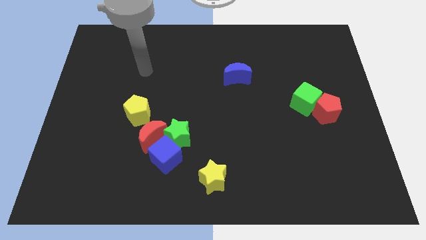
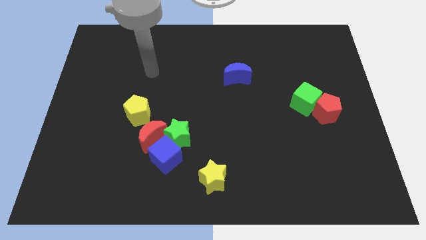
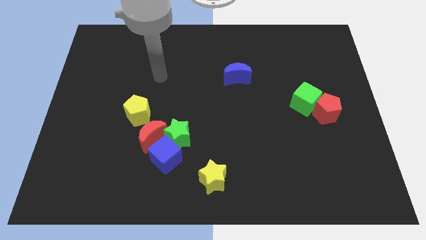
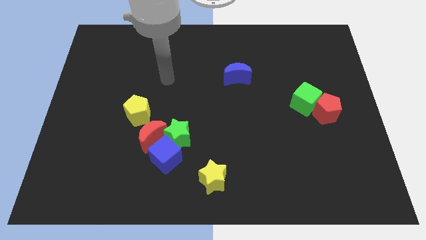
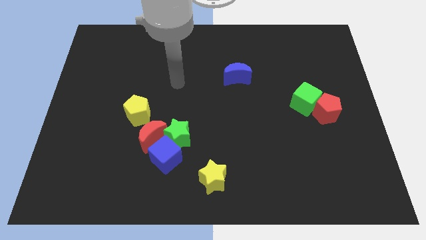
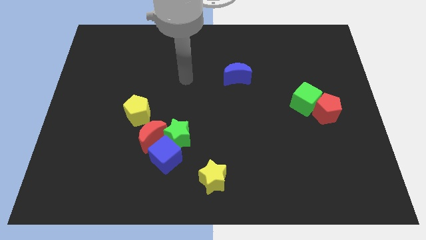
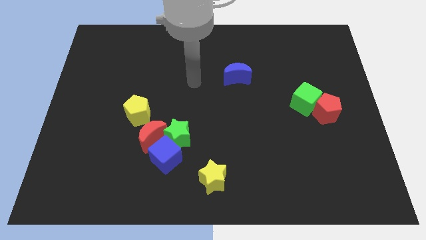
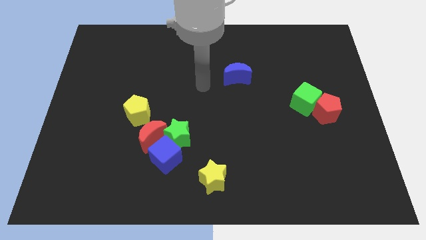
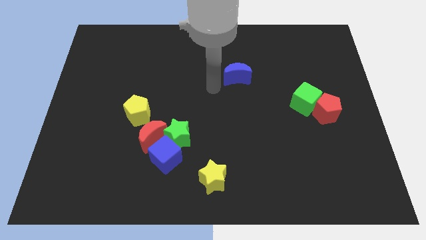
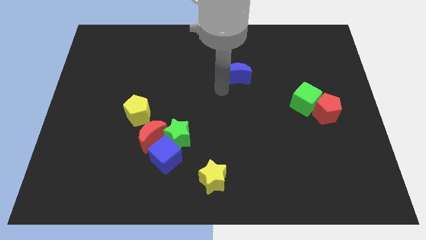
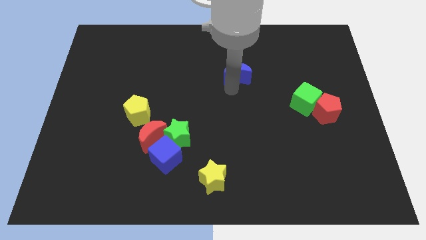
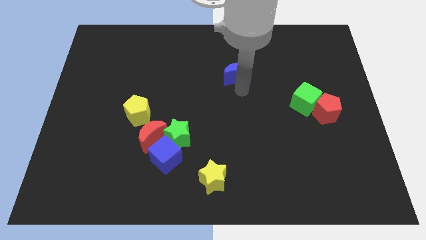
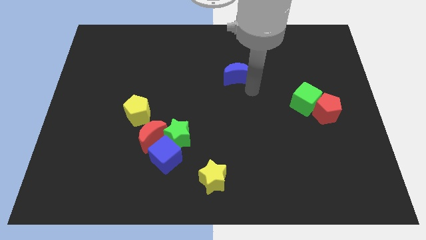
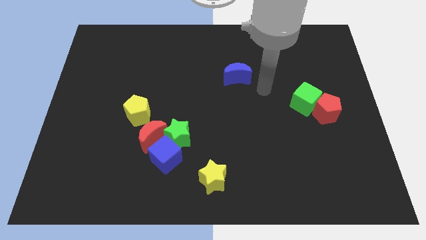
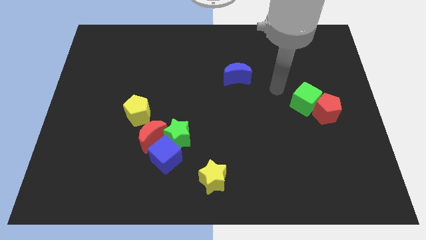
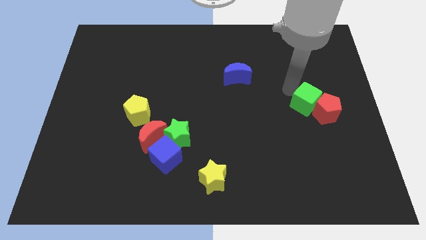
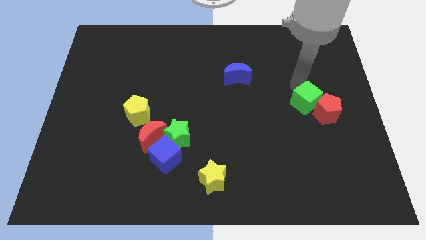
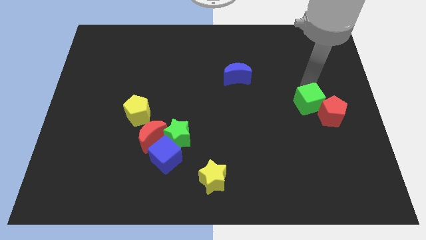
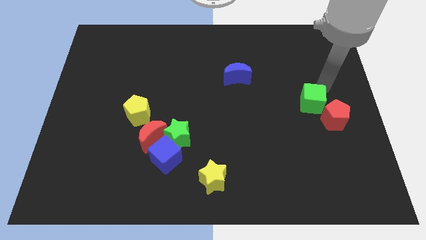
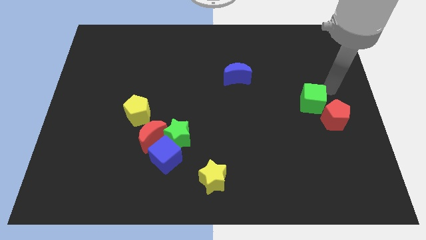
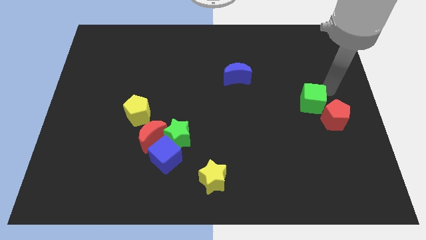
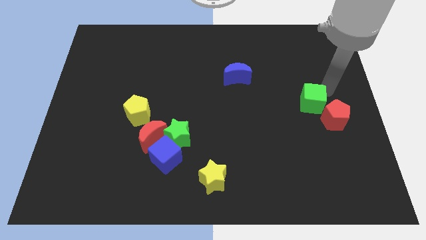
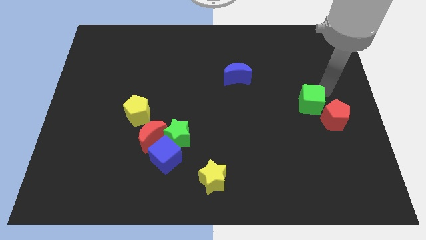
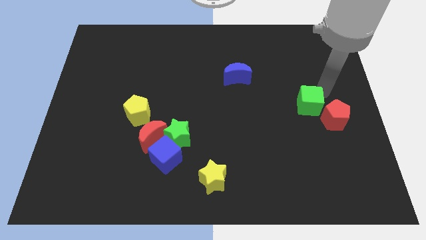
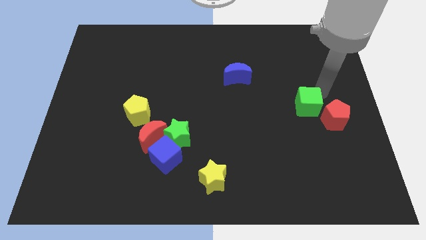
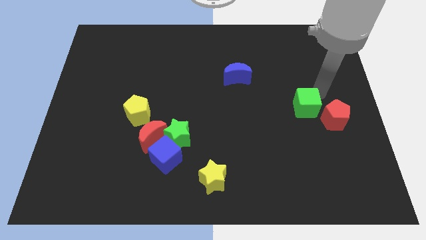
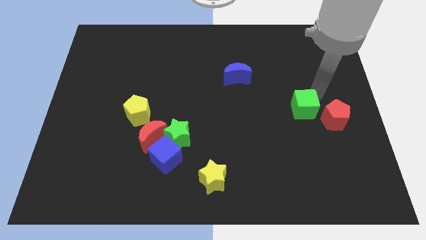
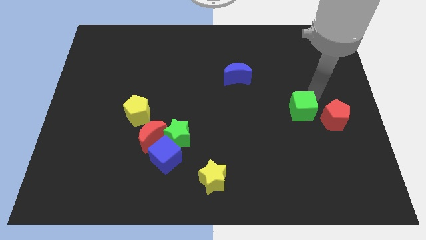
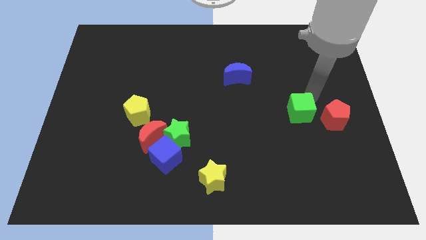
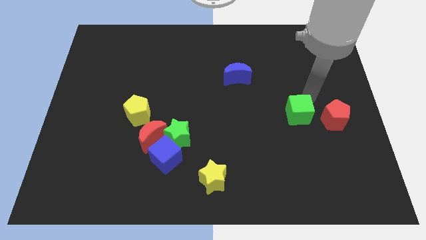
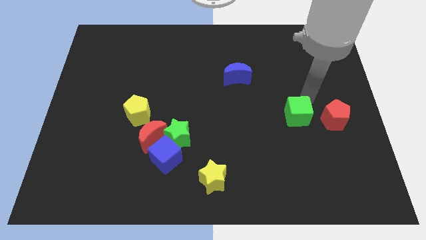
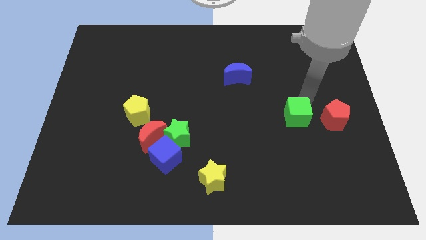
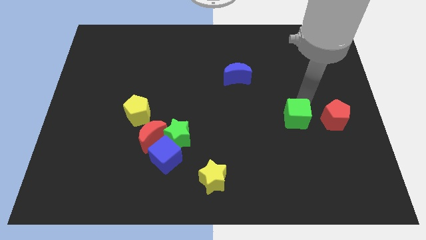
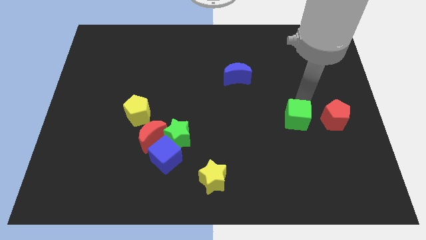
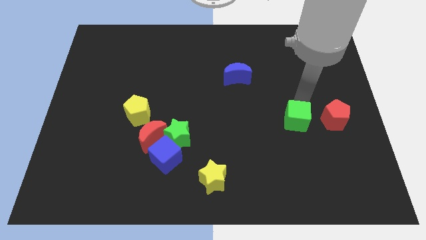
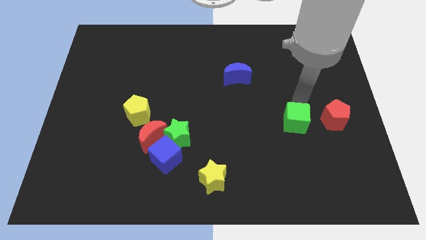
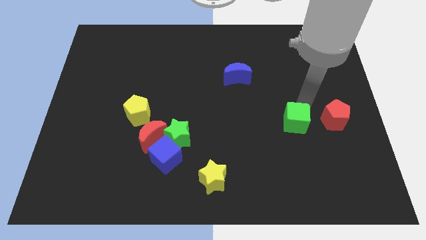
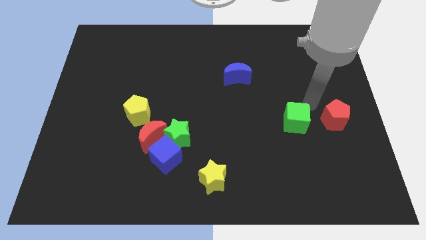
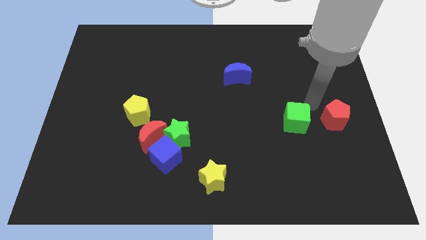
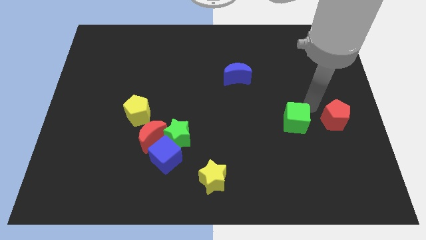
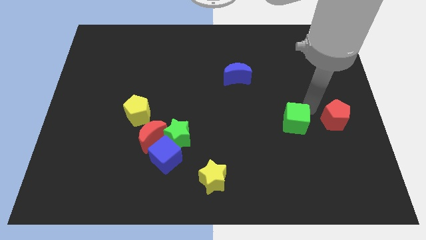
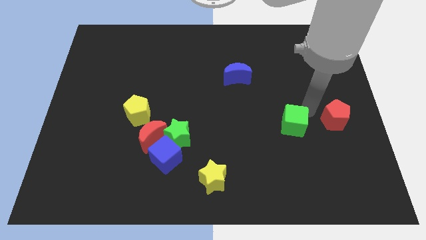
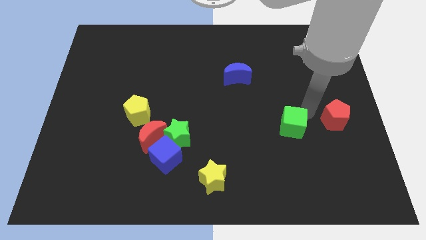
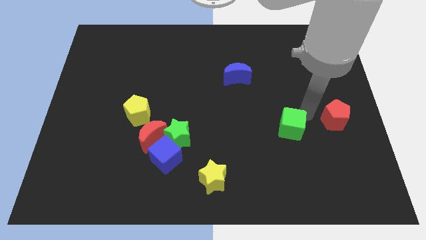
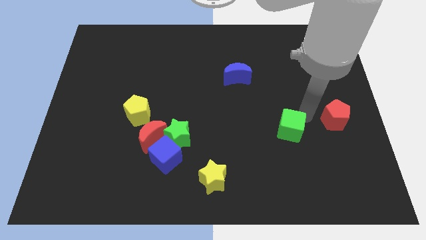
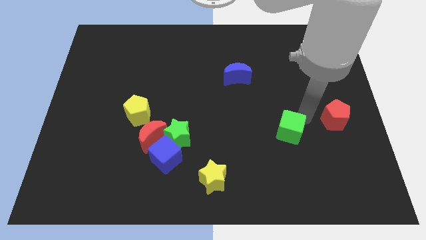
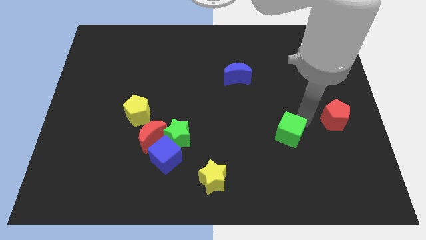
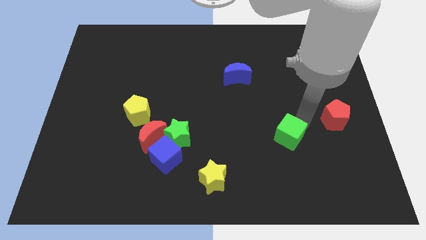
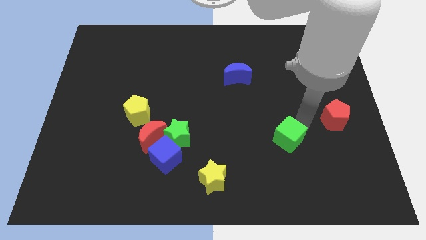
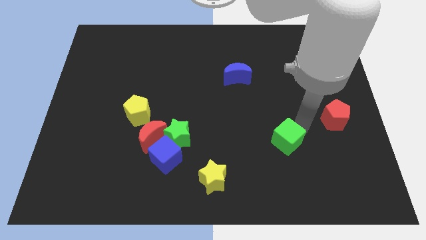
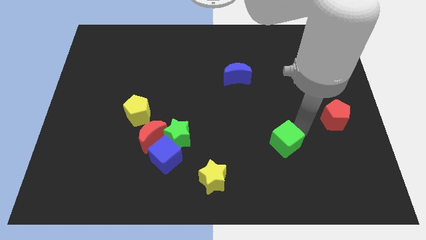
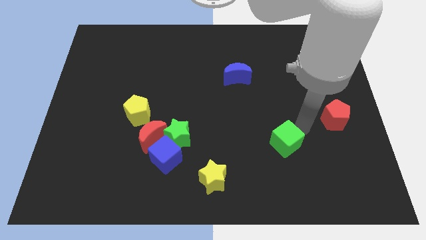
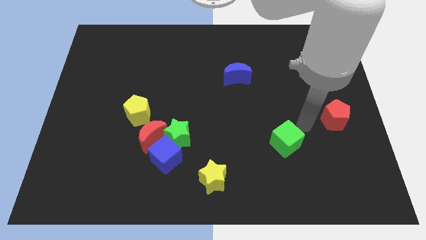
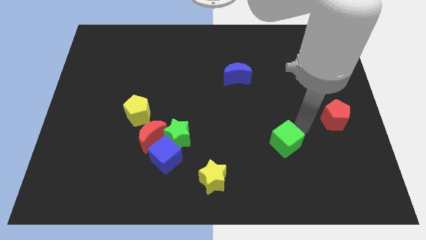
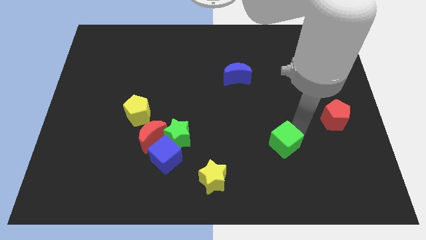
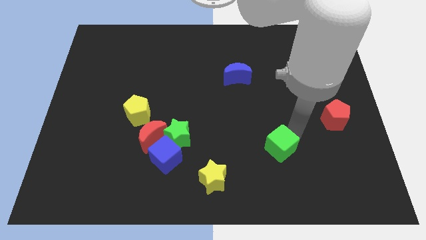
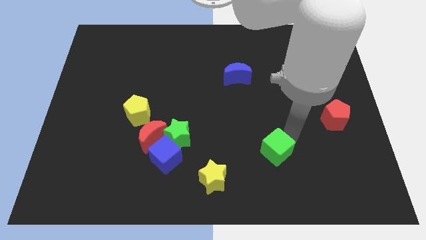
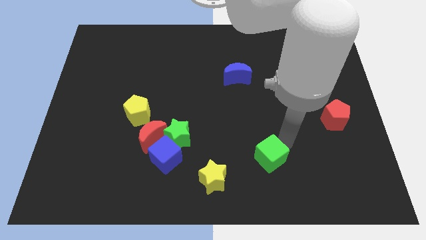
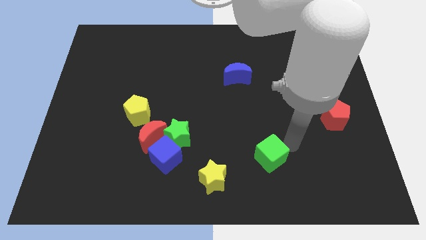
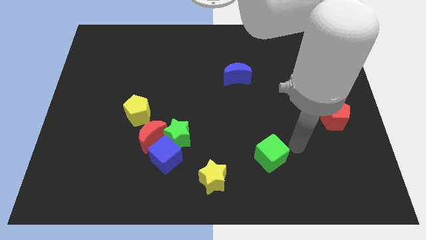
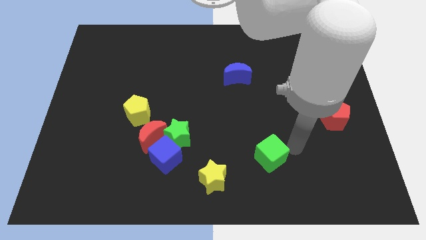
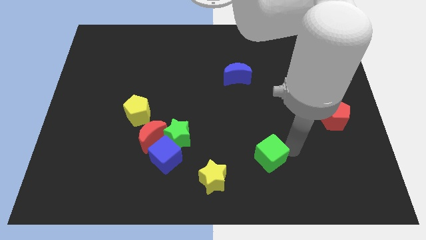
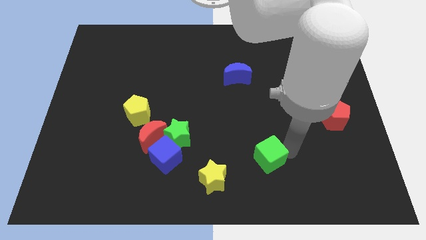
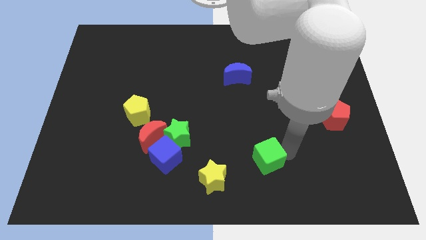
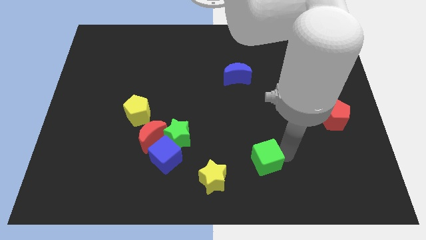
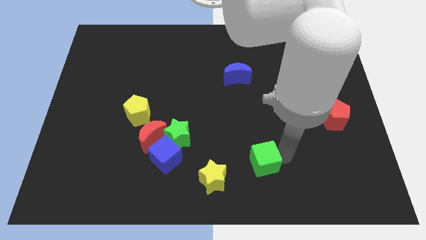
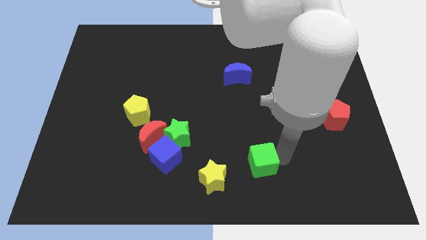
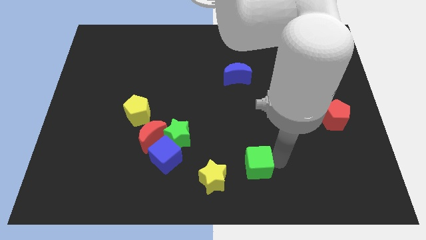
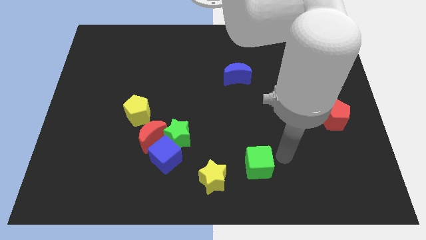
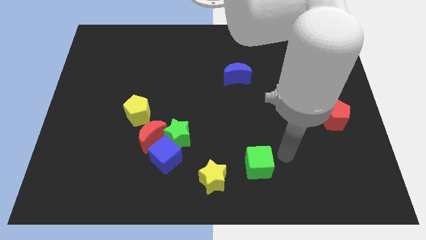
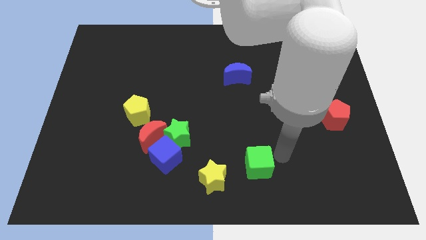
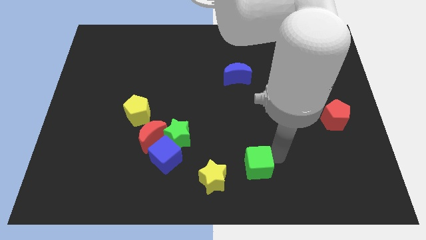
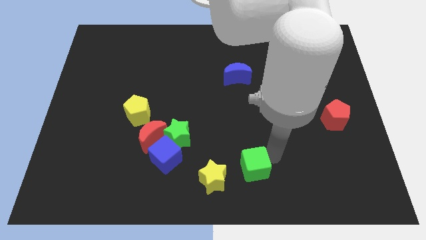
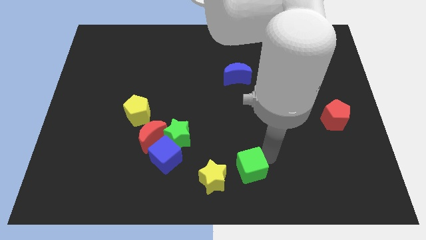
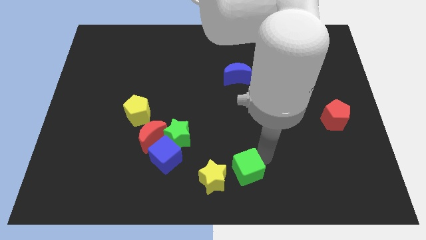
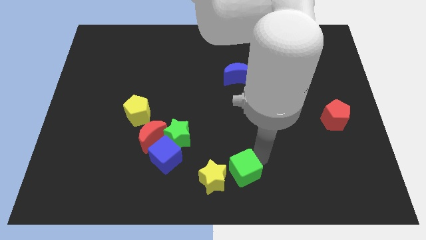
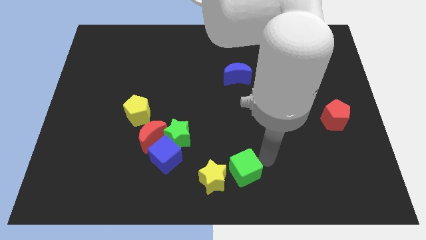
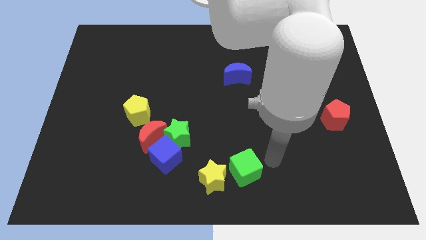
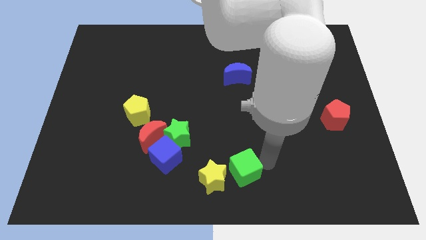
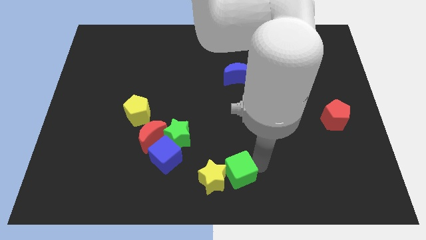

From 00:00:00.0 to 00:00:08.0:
put the green cube next to the yellow star
